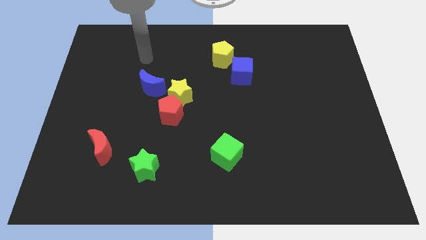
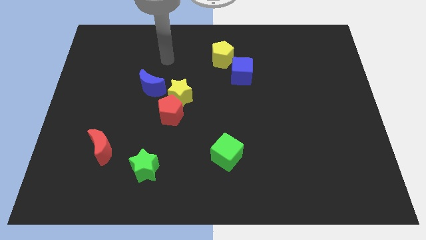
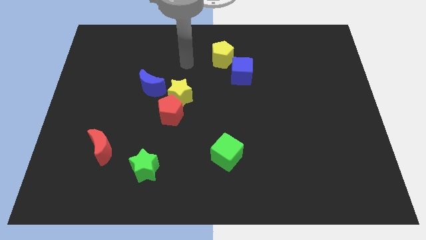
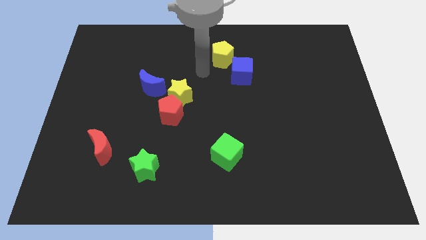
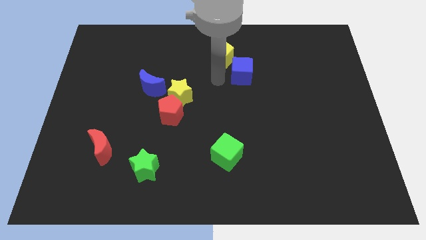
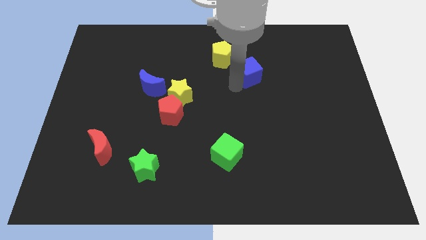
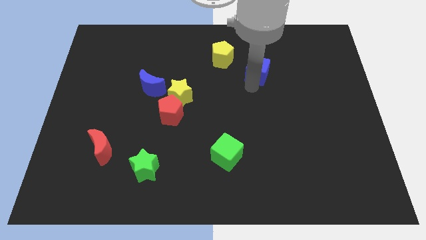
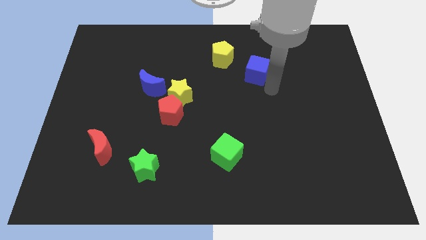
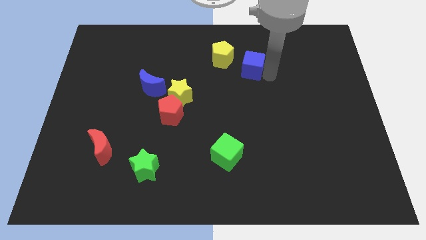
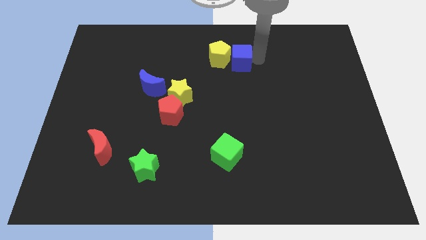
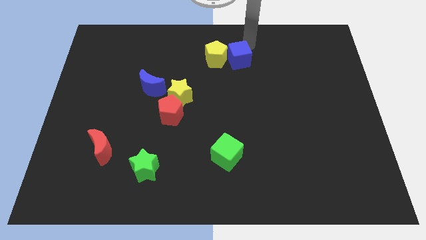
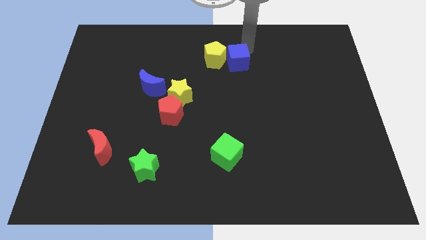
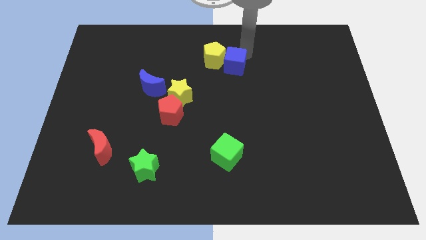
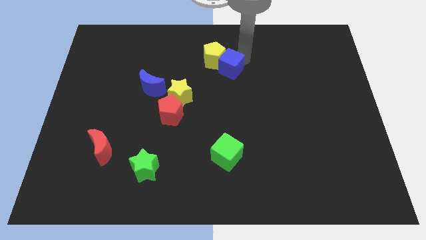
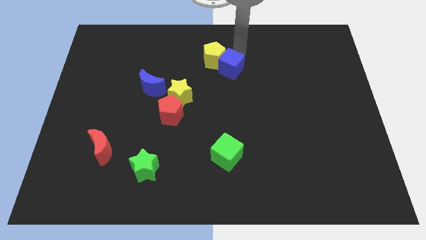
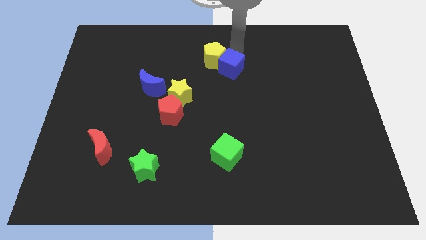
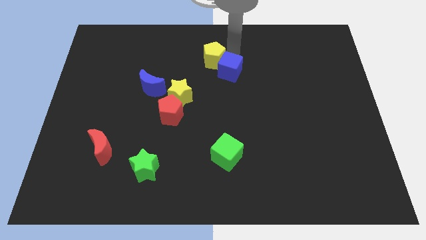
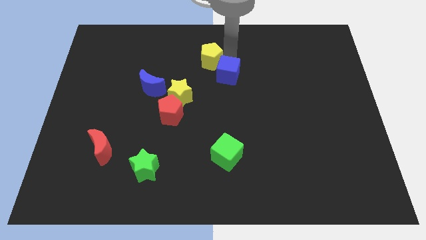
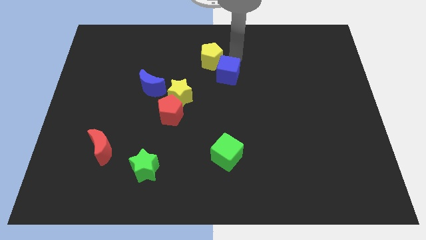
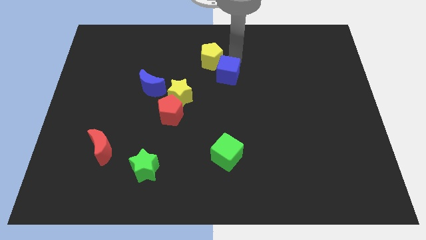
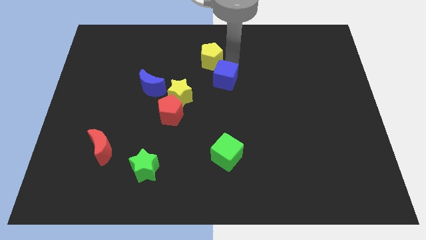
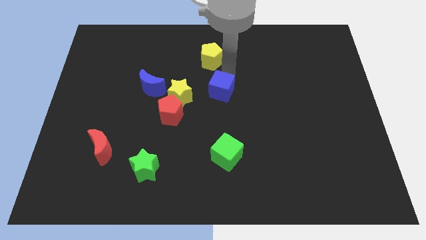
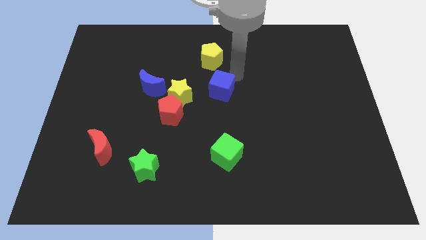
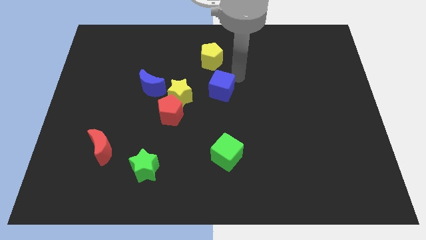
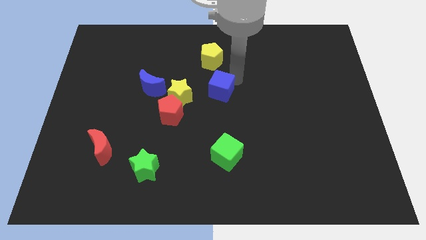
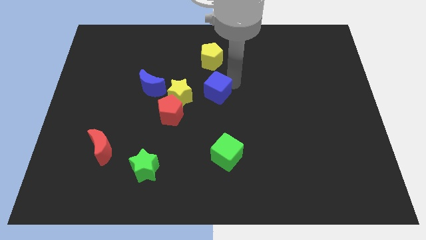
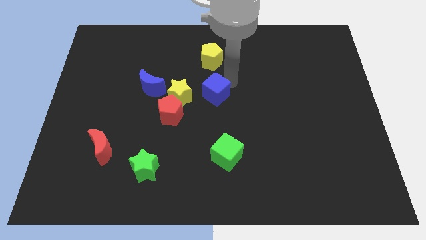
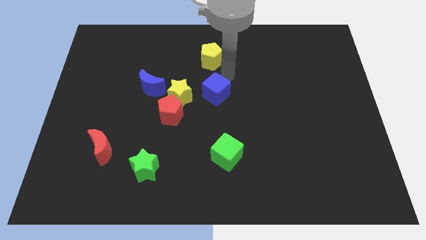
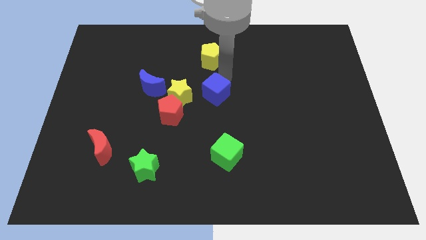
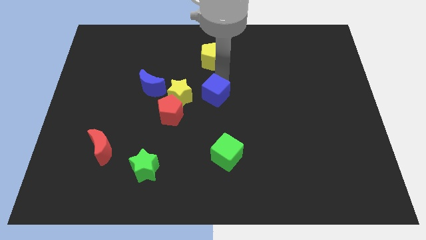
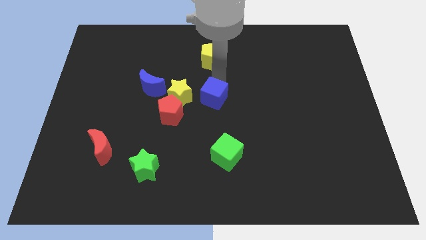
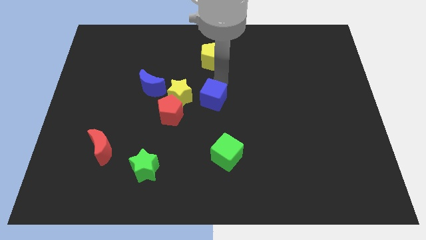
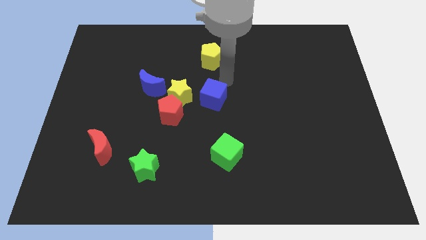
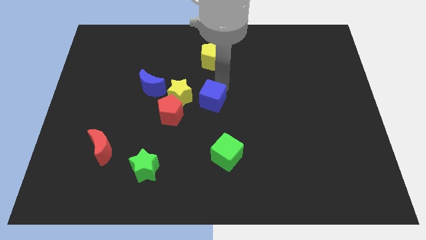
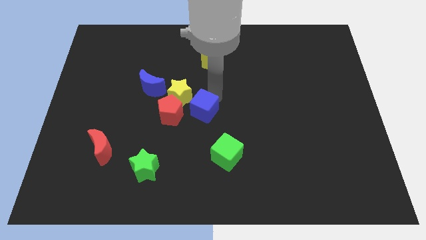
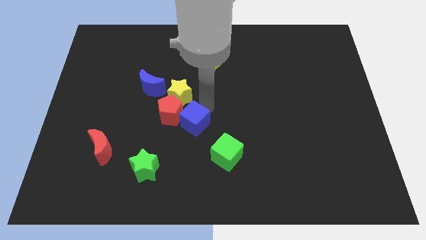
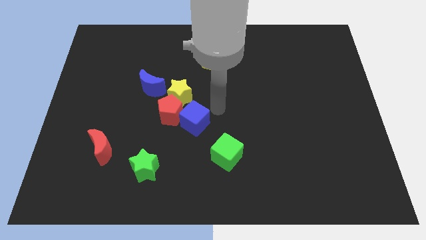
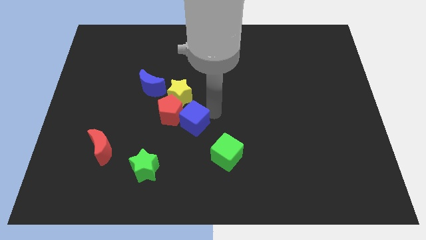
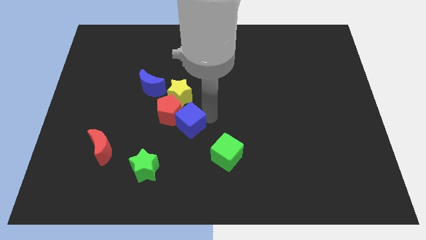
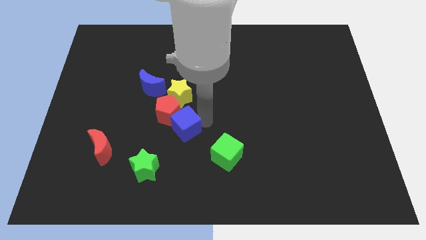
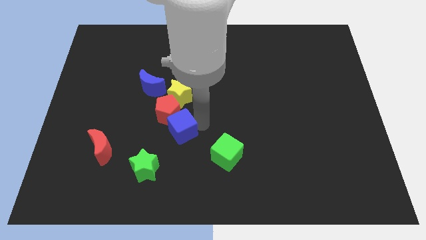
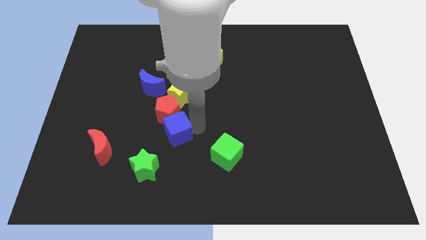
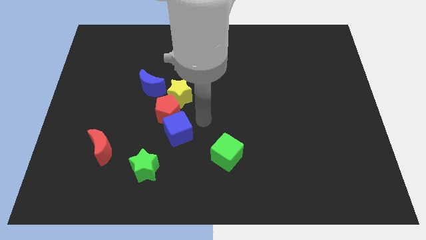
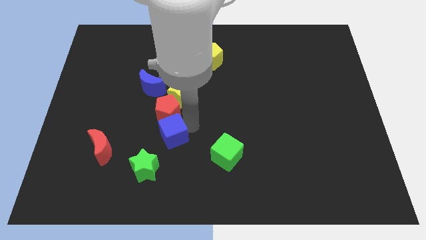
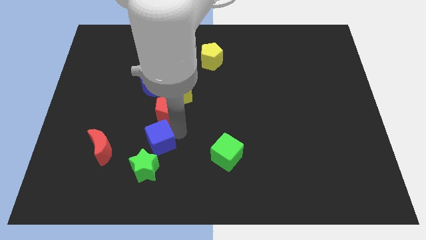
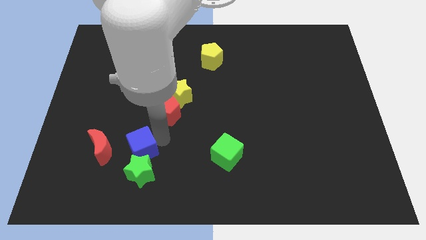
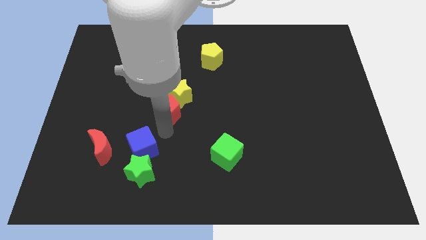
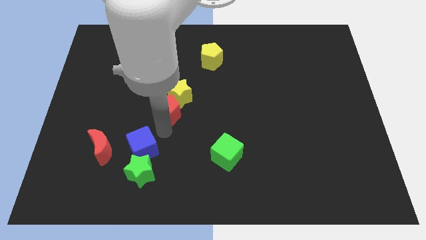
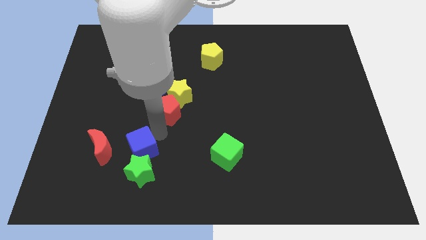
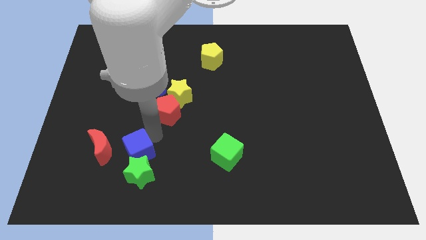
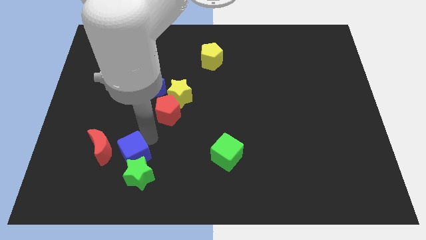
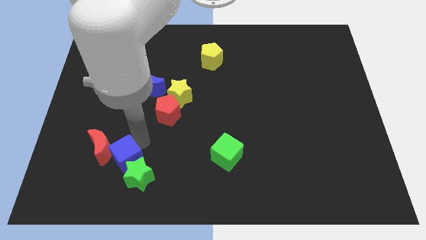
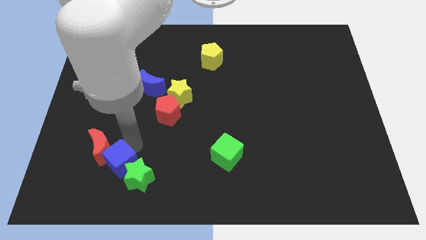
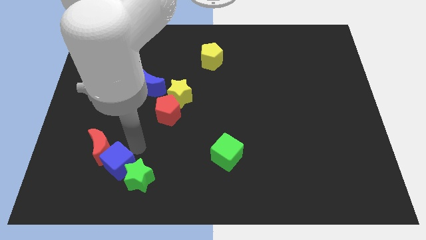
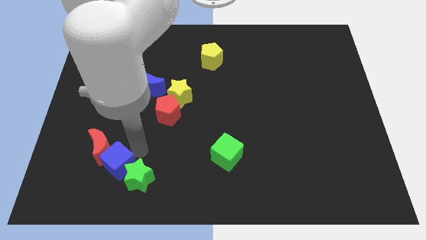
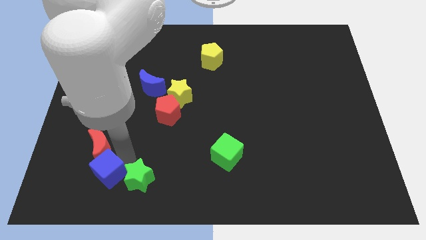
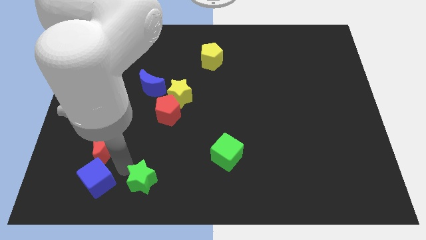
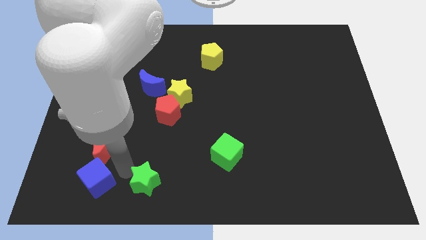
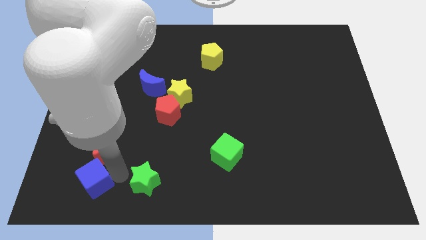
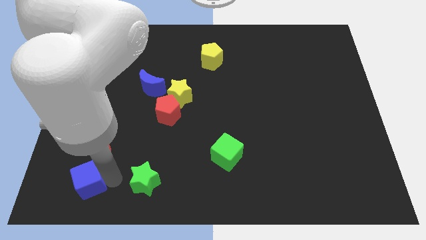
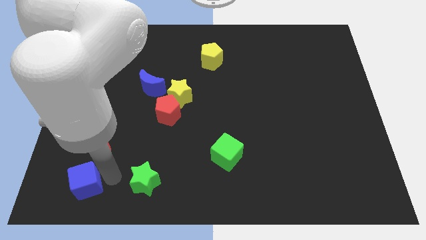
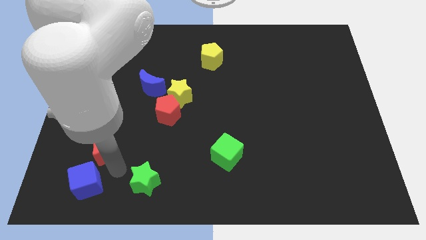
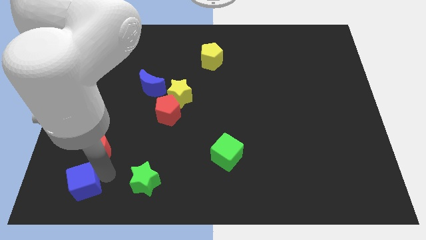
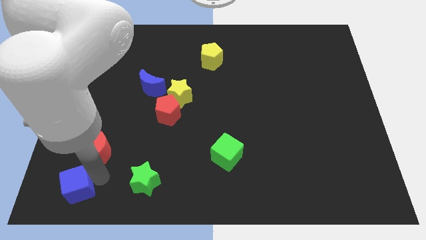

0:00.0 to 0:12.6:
move the blue cube to the lower left corner

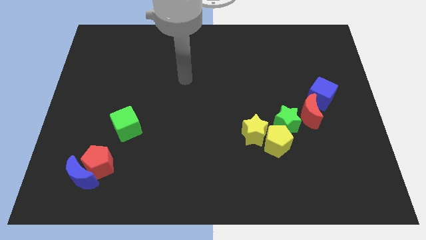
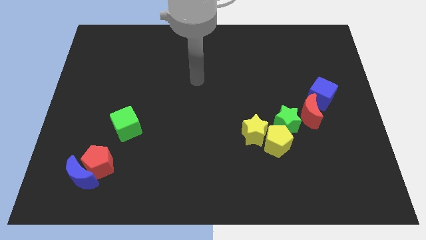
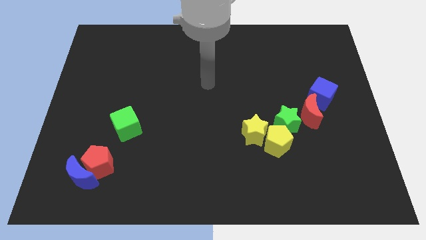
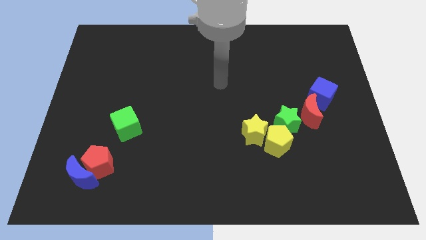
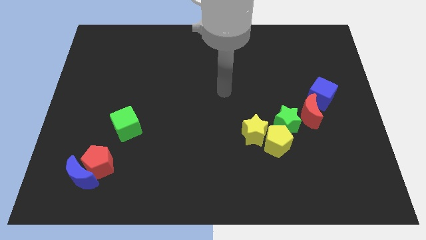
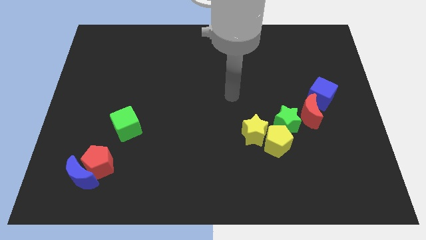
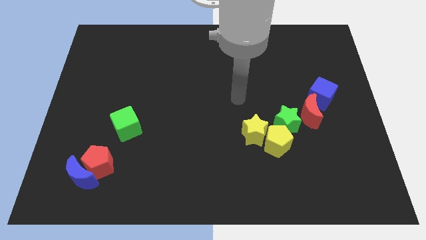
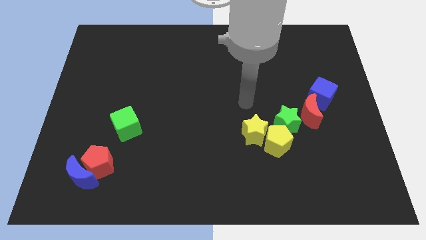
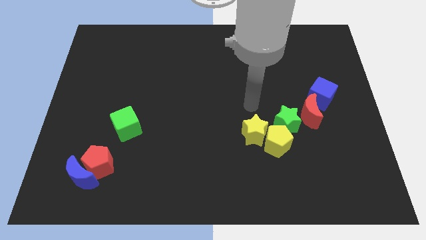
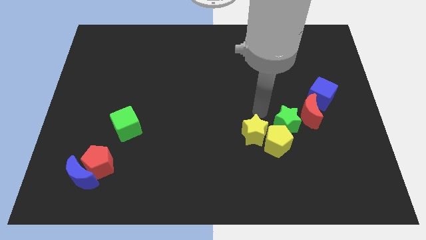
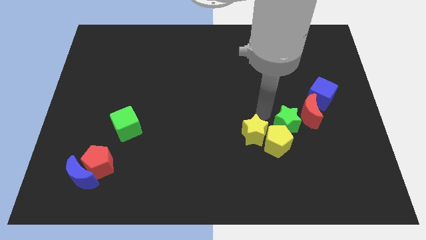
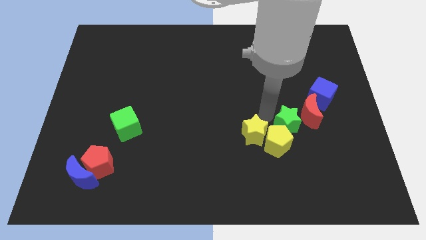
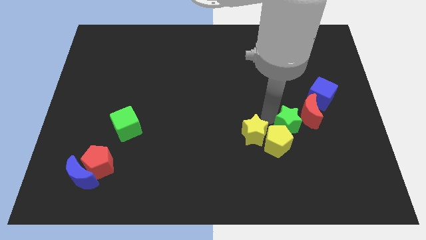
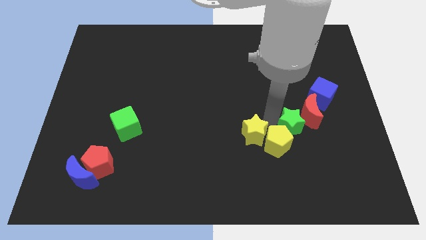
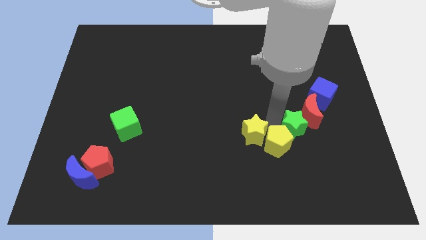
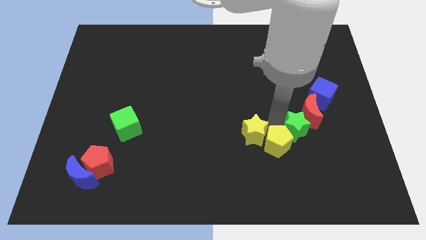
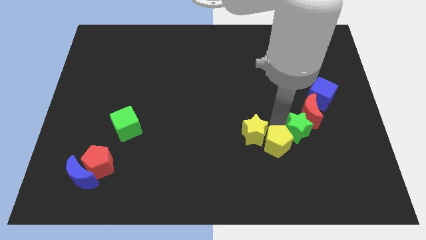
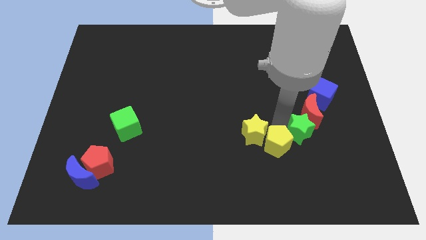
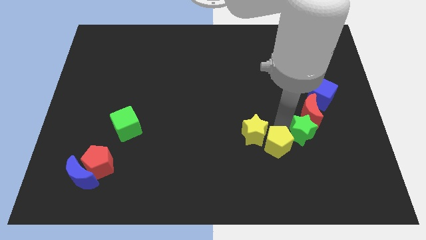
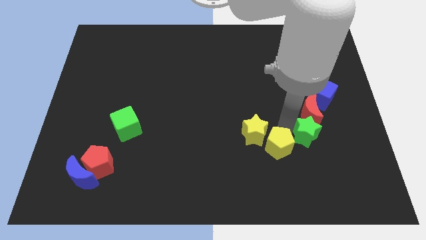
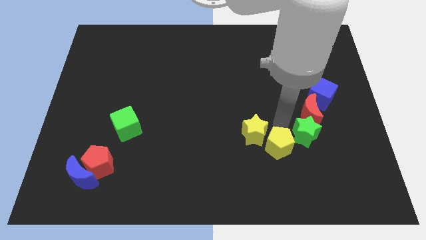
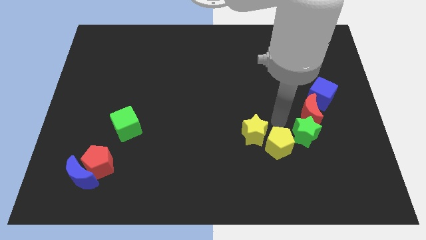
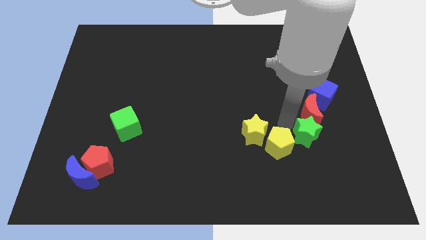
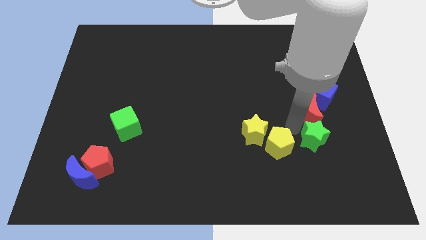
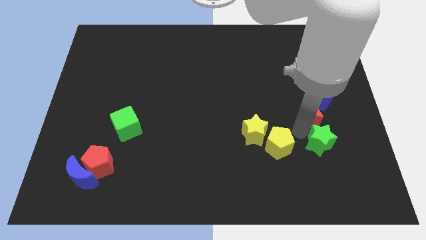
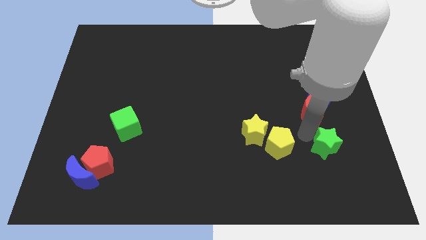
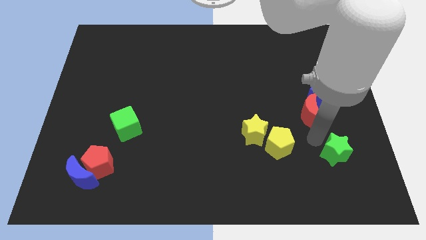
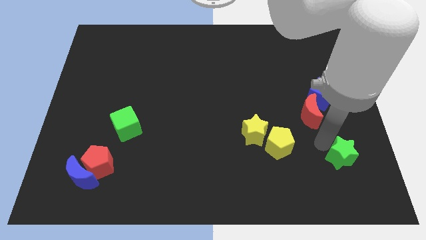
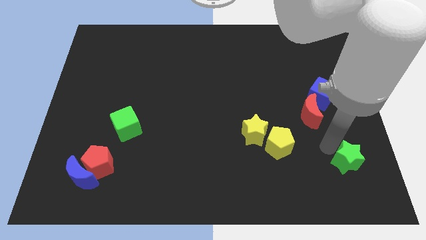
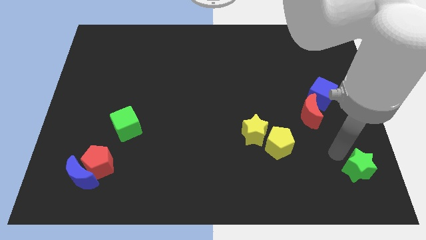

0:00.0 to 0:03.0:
slide the green star to the lower right corner
